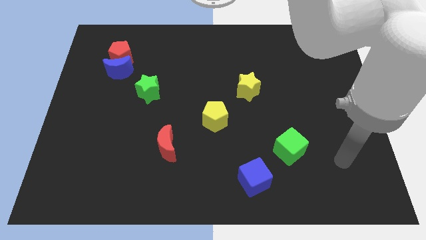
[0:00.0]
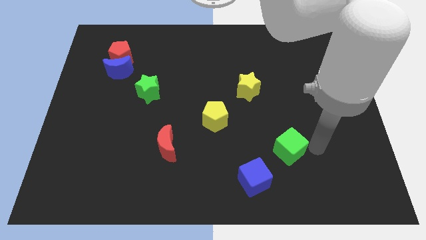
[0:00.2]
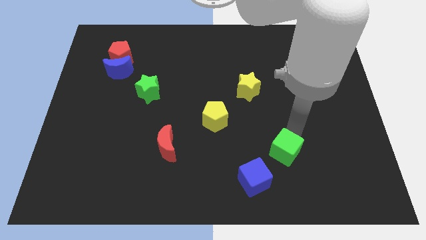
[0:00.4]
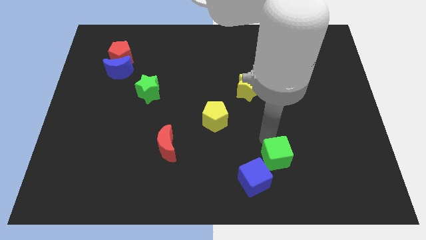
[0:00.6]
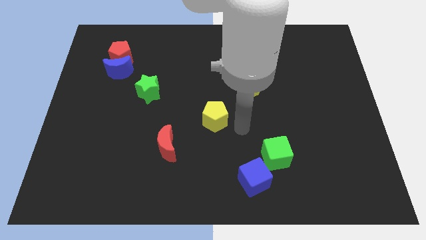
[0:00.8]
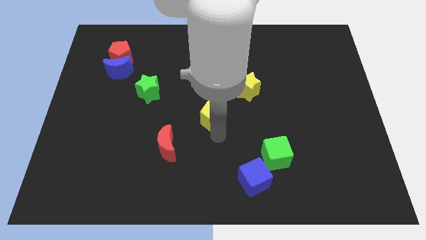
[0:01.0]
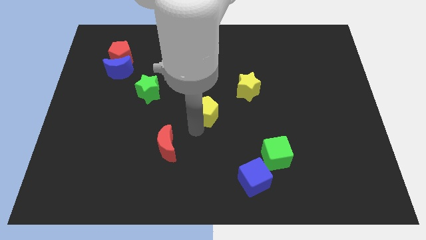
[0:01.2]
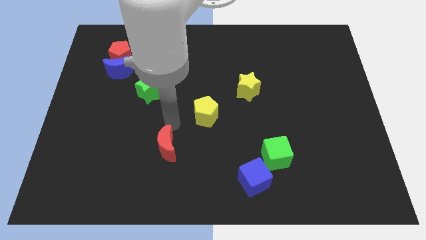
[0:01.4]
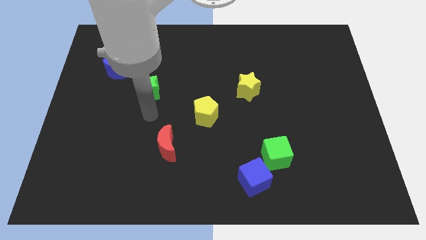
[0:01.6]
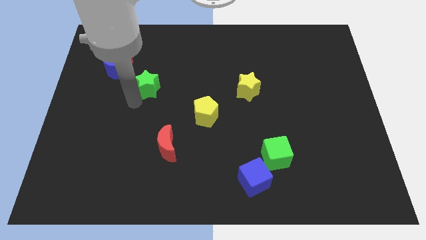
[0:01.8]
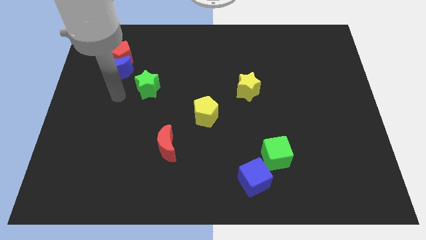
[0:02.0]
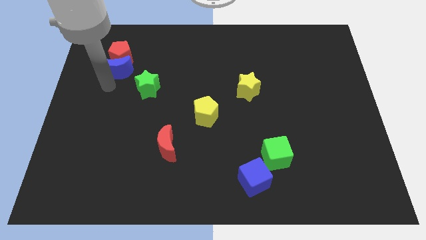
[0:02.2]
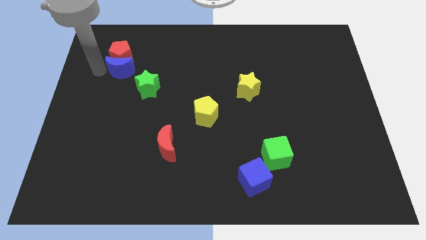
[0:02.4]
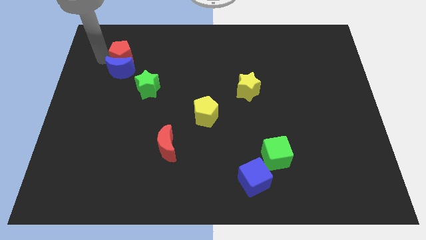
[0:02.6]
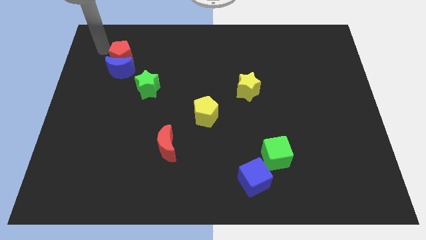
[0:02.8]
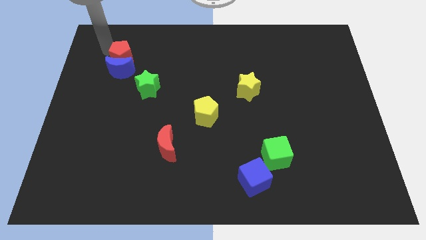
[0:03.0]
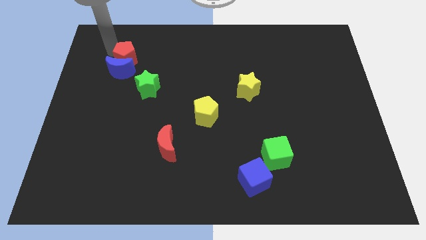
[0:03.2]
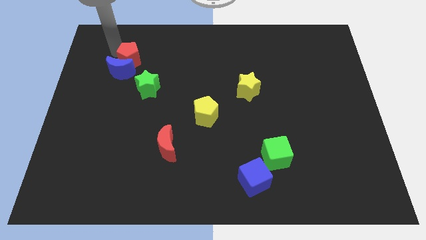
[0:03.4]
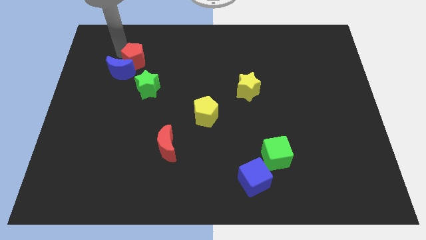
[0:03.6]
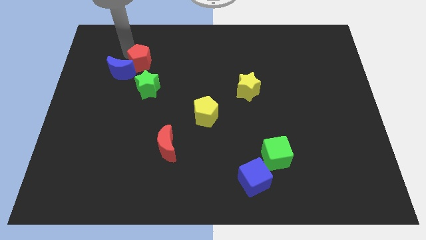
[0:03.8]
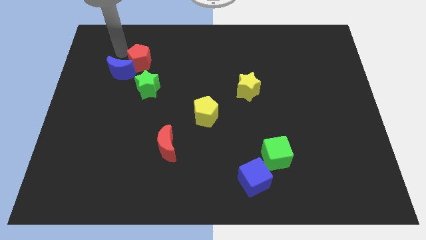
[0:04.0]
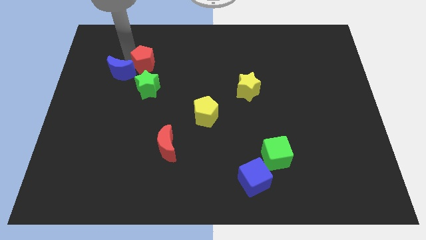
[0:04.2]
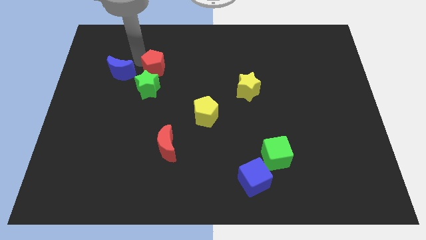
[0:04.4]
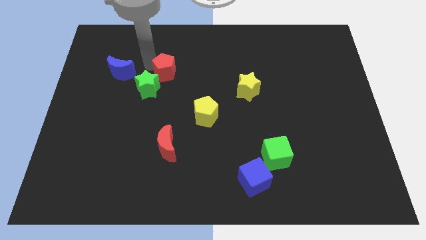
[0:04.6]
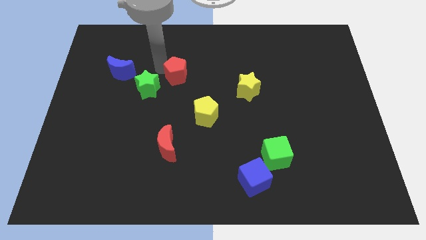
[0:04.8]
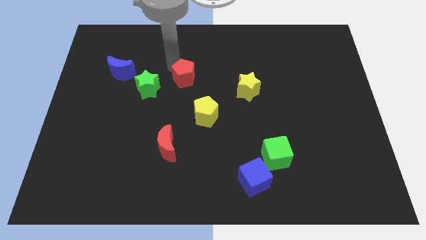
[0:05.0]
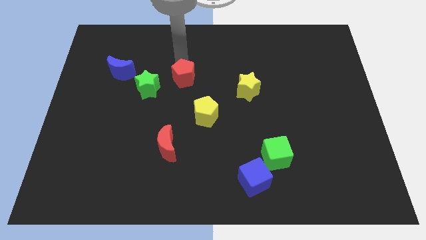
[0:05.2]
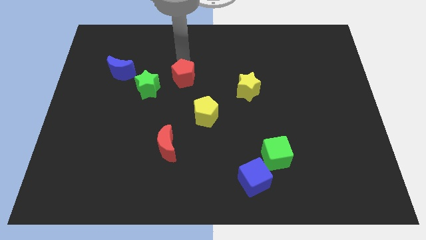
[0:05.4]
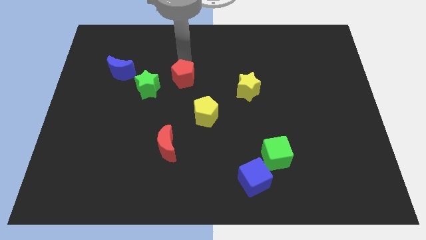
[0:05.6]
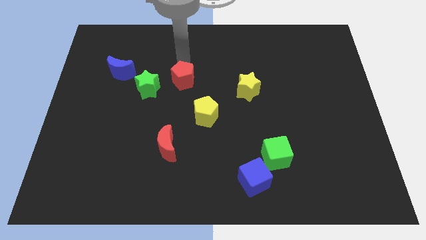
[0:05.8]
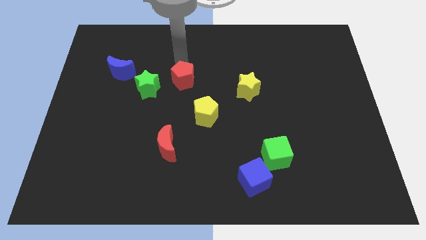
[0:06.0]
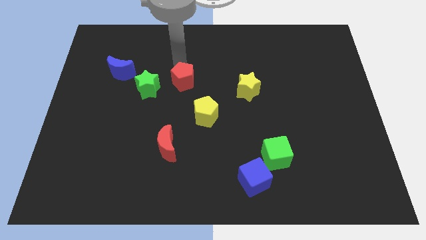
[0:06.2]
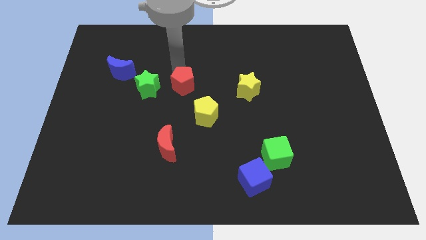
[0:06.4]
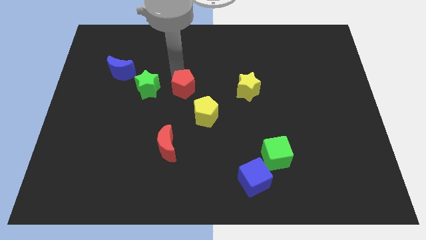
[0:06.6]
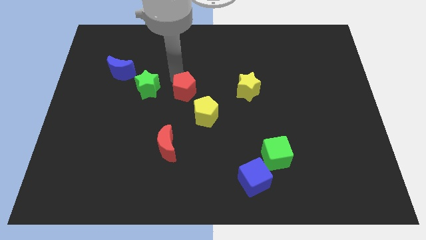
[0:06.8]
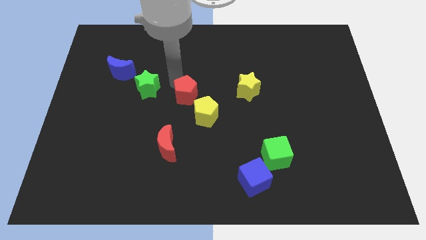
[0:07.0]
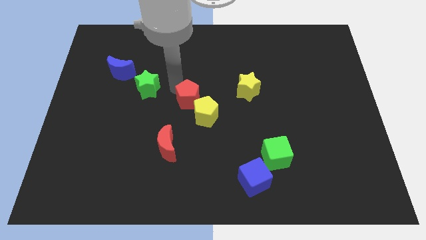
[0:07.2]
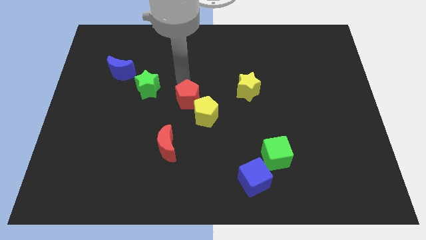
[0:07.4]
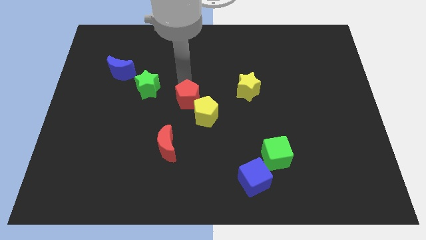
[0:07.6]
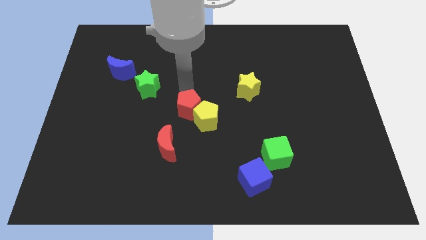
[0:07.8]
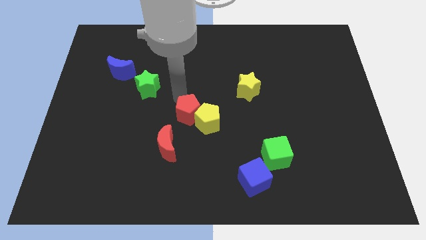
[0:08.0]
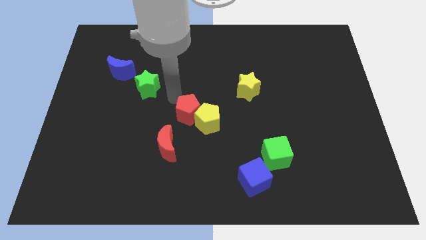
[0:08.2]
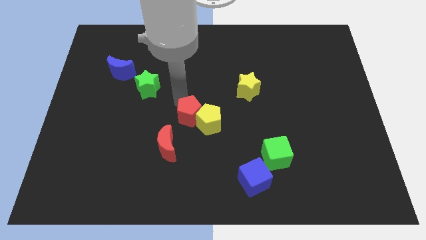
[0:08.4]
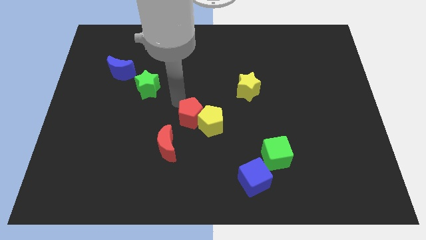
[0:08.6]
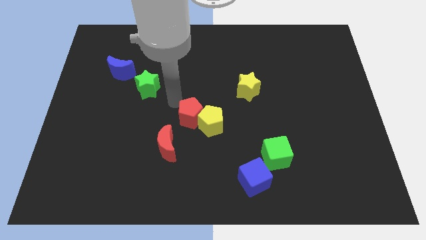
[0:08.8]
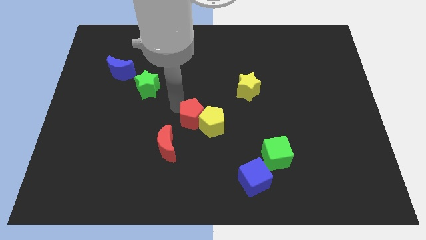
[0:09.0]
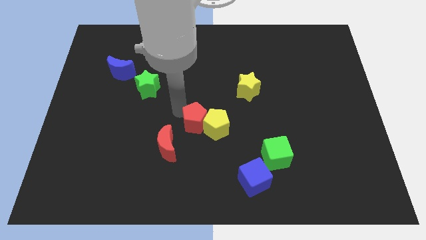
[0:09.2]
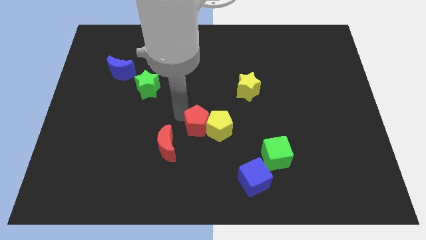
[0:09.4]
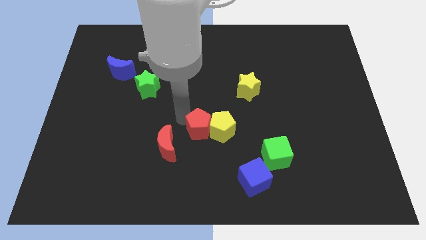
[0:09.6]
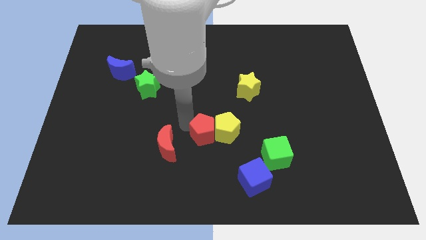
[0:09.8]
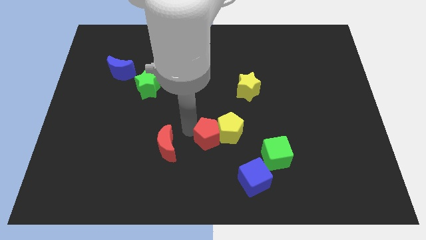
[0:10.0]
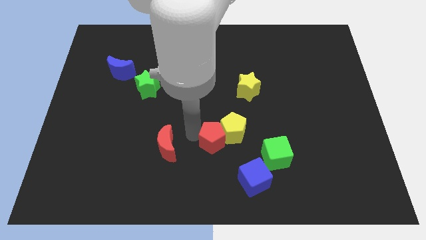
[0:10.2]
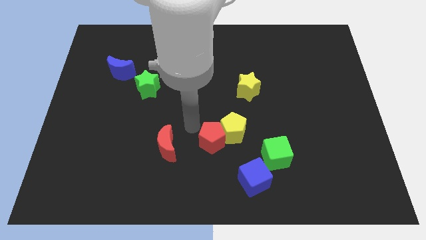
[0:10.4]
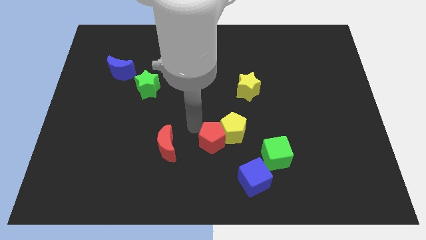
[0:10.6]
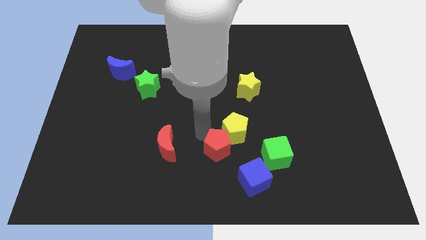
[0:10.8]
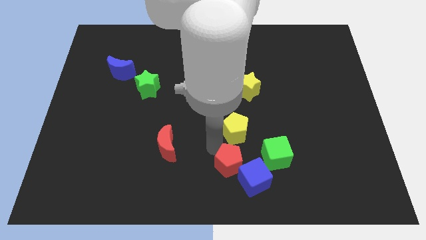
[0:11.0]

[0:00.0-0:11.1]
push the red pentagon close to the blue cube

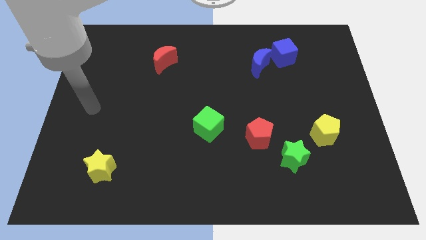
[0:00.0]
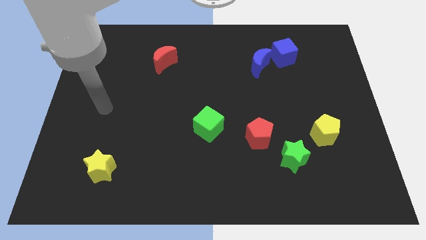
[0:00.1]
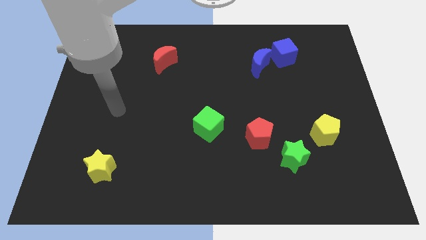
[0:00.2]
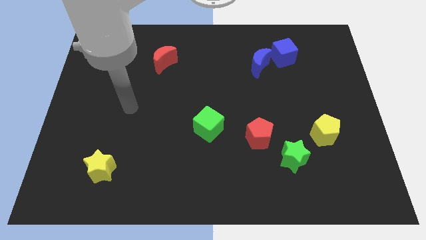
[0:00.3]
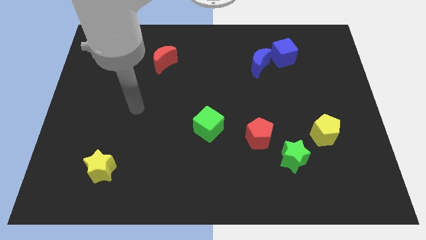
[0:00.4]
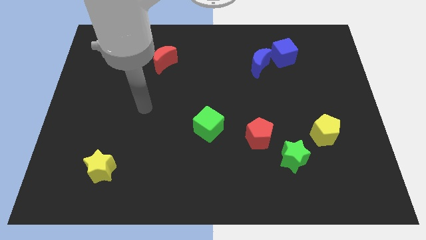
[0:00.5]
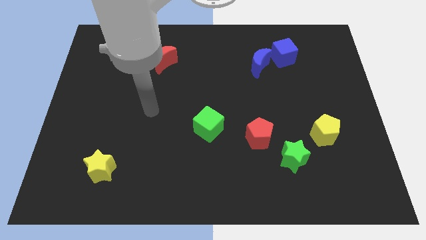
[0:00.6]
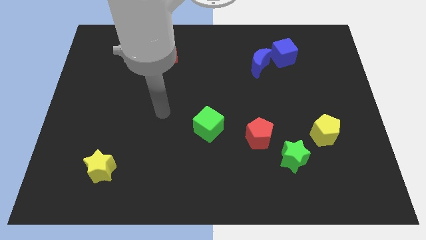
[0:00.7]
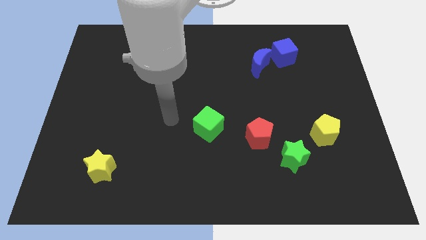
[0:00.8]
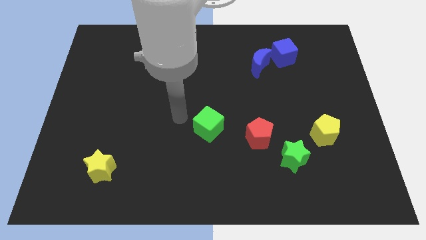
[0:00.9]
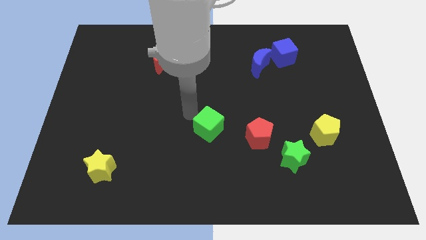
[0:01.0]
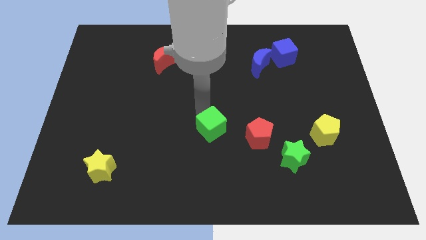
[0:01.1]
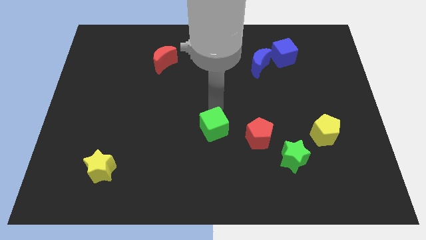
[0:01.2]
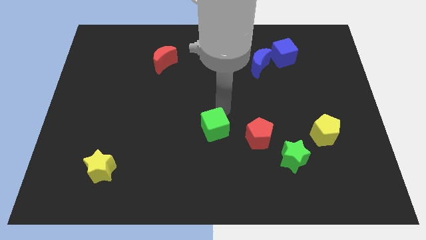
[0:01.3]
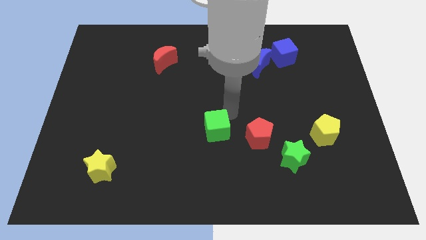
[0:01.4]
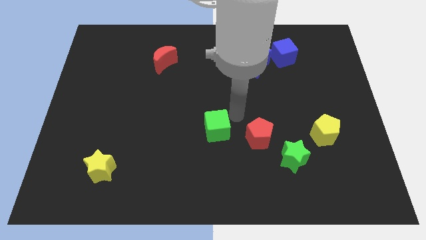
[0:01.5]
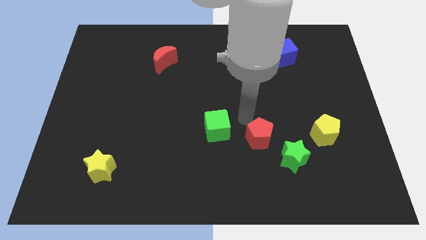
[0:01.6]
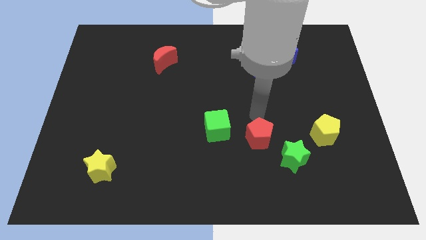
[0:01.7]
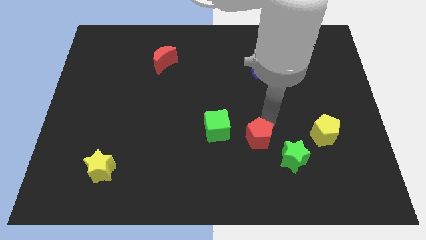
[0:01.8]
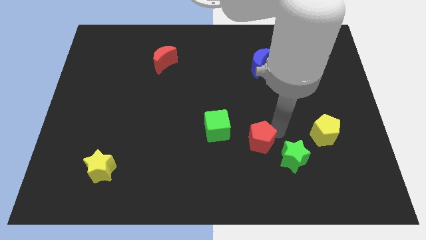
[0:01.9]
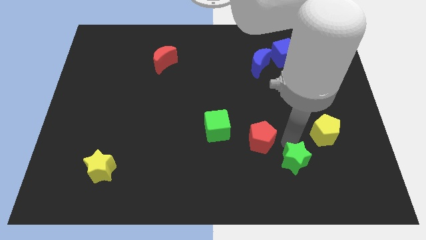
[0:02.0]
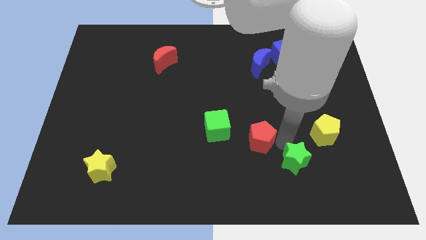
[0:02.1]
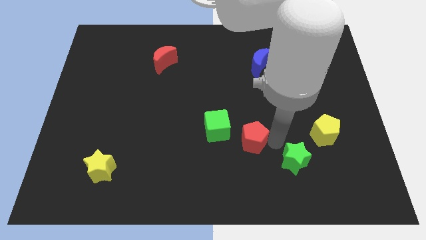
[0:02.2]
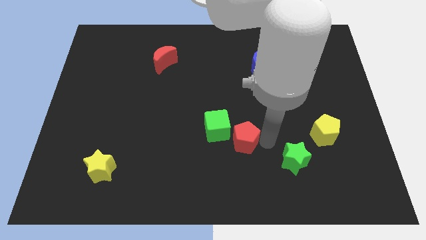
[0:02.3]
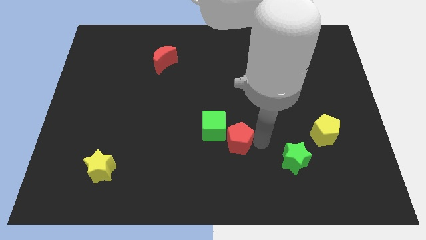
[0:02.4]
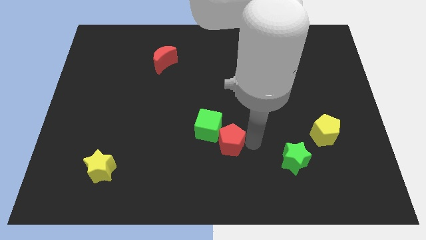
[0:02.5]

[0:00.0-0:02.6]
move the red pentagon close to the green cube
